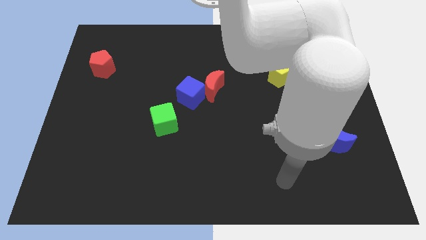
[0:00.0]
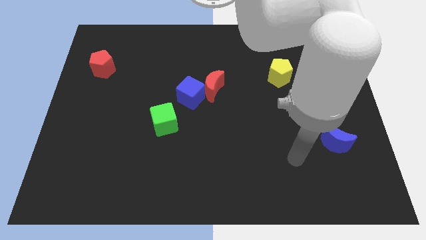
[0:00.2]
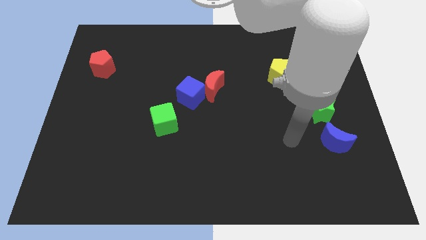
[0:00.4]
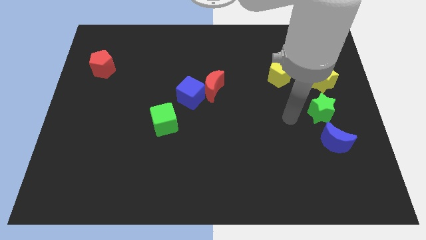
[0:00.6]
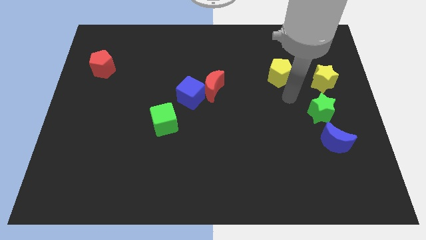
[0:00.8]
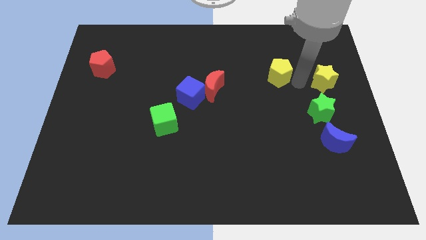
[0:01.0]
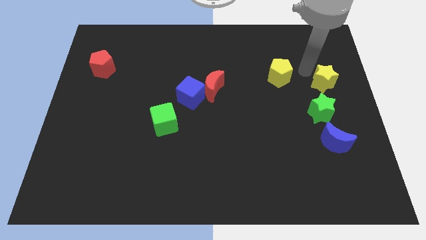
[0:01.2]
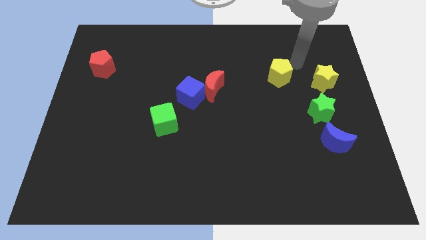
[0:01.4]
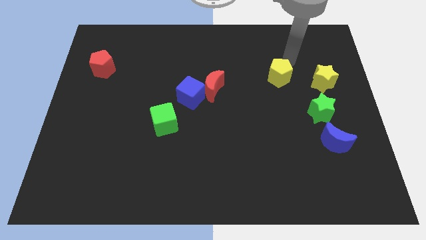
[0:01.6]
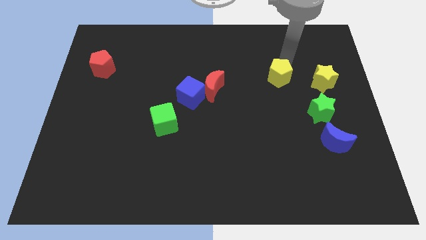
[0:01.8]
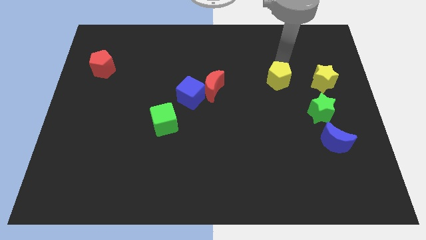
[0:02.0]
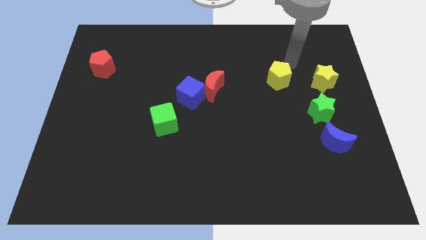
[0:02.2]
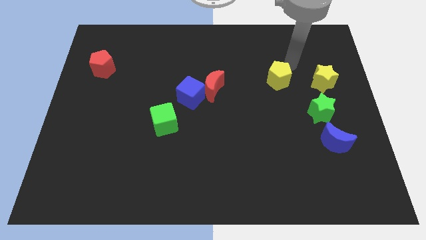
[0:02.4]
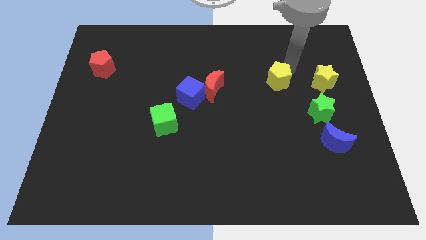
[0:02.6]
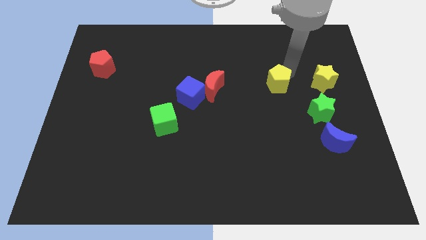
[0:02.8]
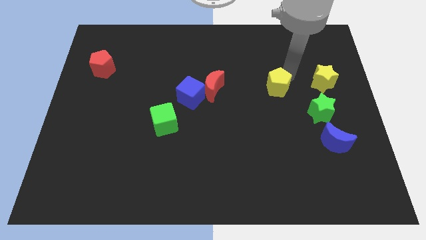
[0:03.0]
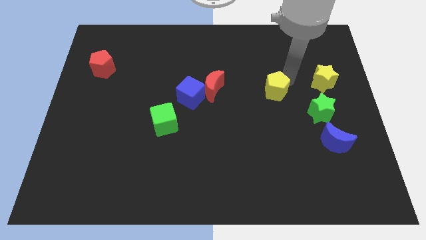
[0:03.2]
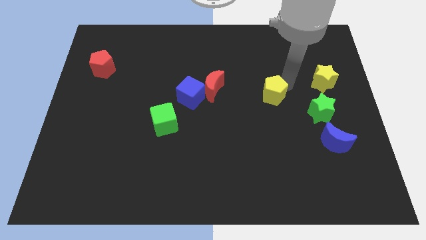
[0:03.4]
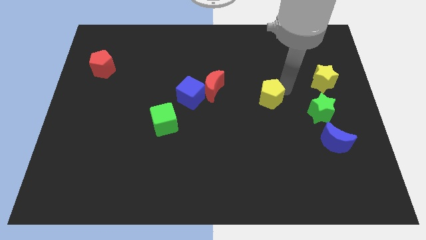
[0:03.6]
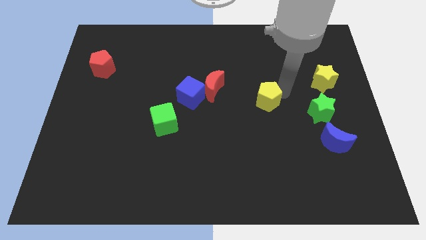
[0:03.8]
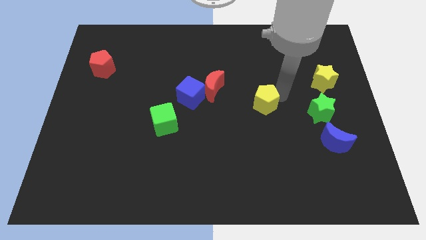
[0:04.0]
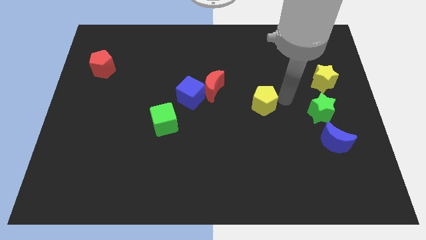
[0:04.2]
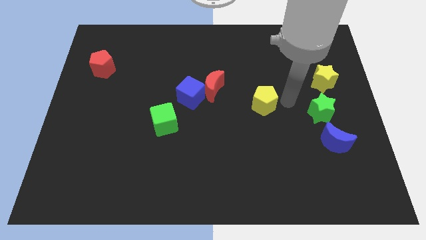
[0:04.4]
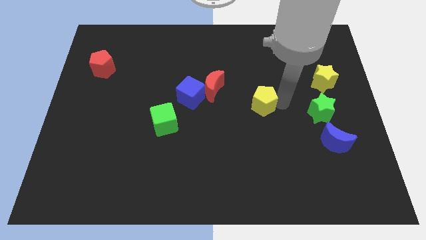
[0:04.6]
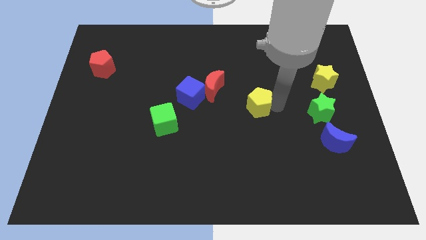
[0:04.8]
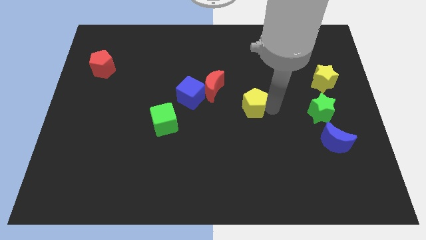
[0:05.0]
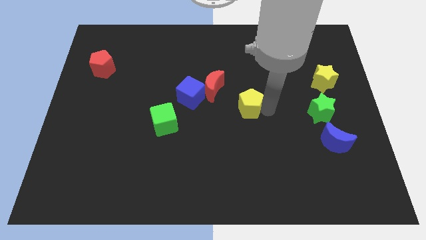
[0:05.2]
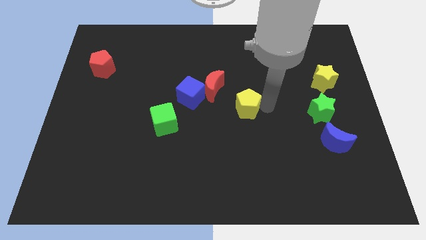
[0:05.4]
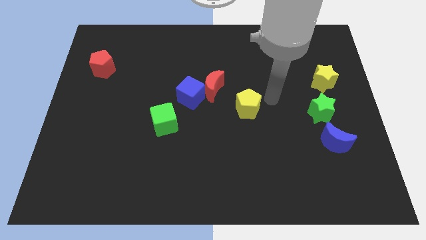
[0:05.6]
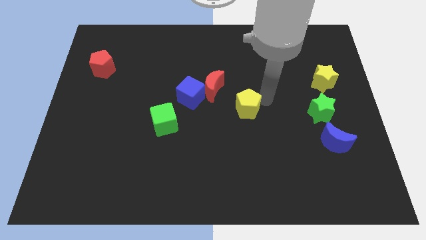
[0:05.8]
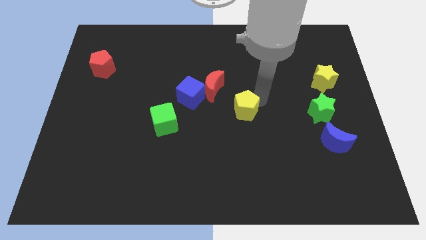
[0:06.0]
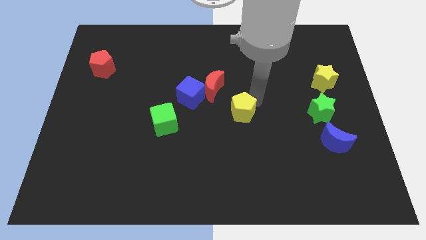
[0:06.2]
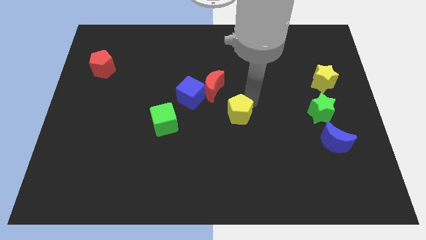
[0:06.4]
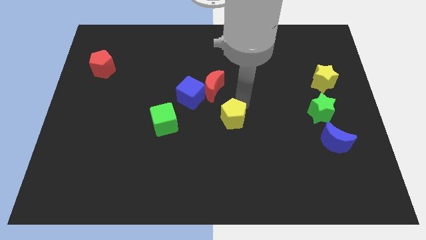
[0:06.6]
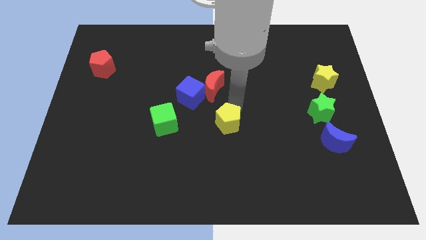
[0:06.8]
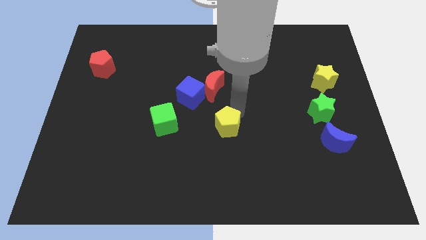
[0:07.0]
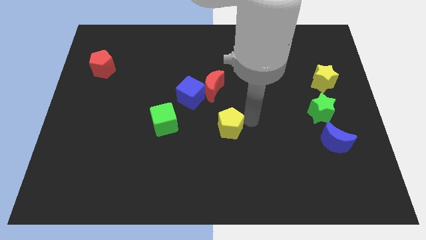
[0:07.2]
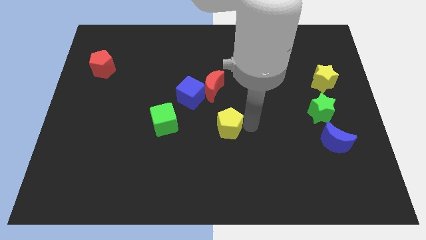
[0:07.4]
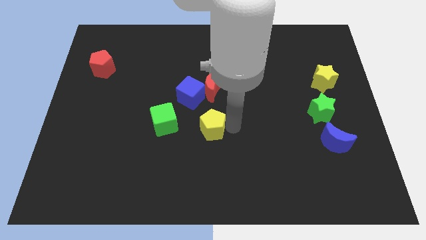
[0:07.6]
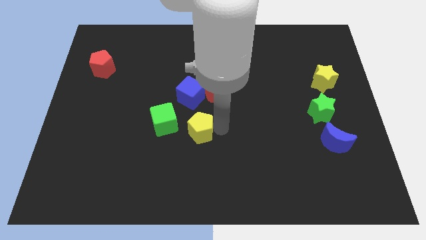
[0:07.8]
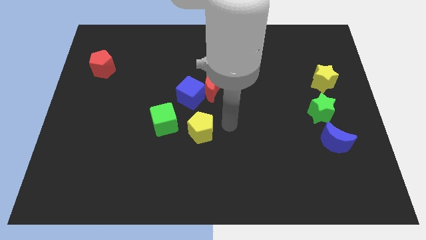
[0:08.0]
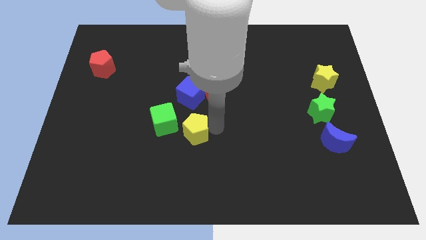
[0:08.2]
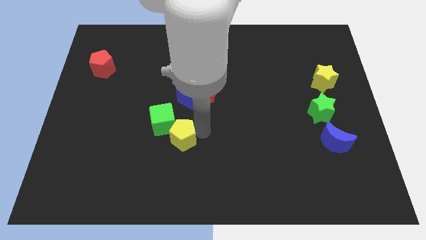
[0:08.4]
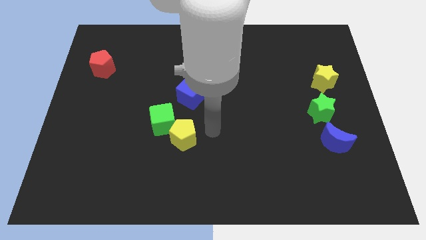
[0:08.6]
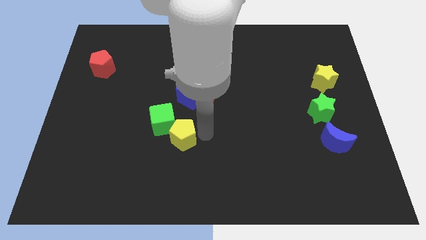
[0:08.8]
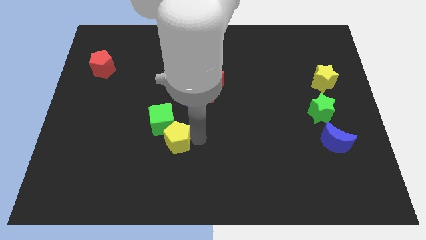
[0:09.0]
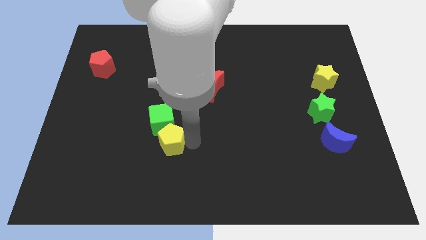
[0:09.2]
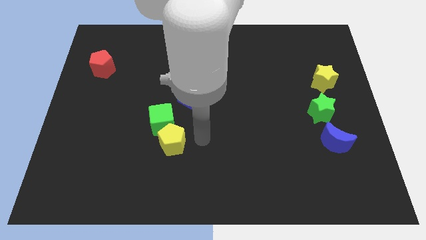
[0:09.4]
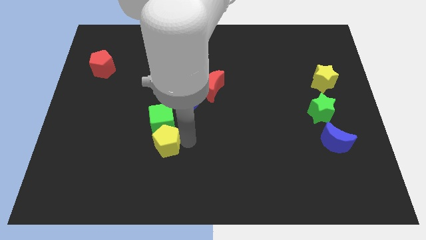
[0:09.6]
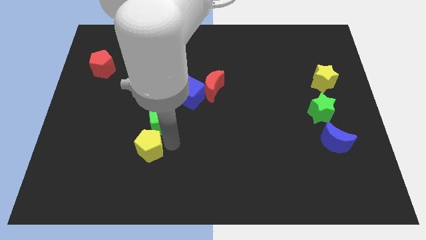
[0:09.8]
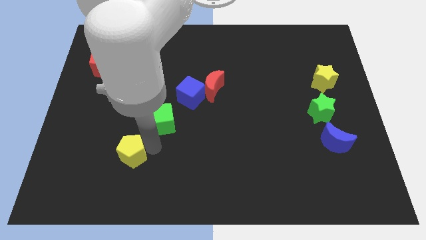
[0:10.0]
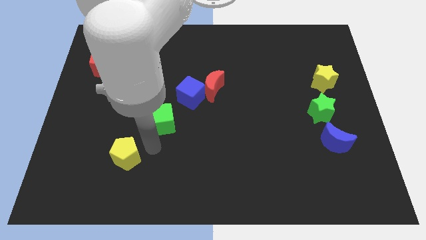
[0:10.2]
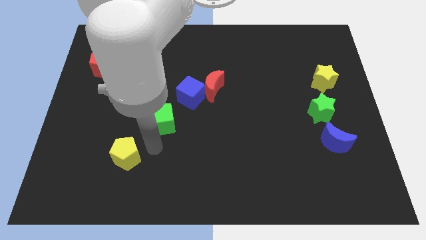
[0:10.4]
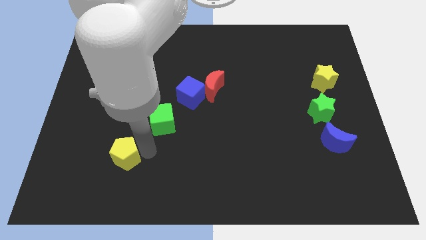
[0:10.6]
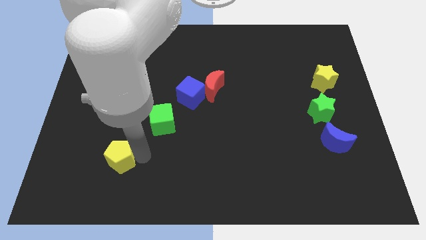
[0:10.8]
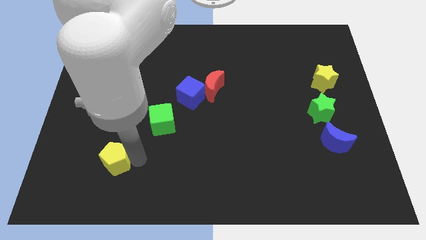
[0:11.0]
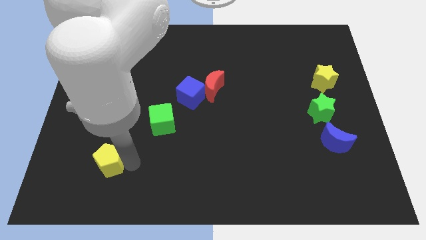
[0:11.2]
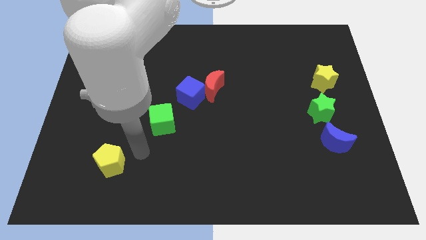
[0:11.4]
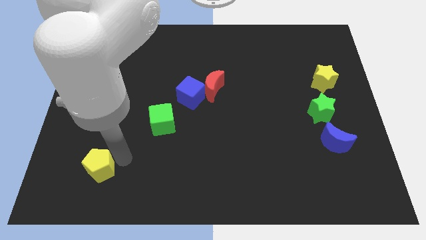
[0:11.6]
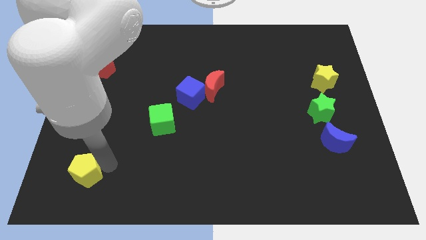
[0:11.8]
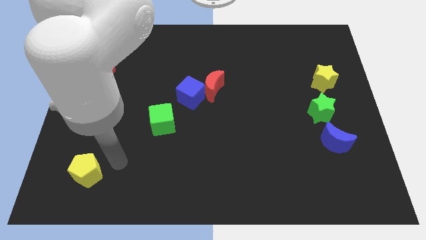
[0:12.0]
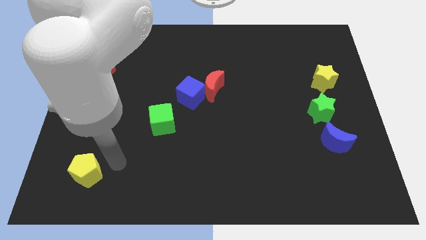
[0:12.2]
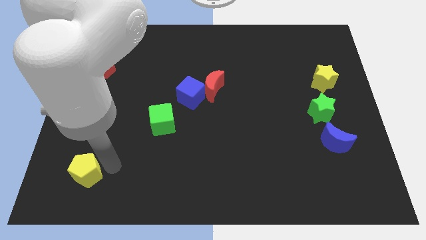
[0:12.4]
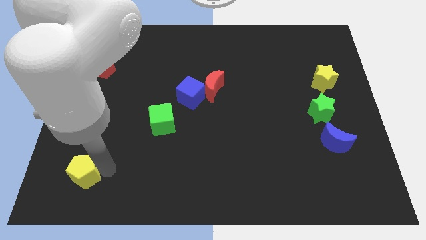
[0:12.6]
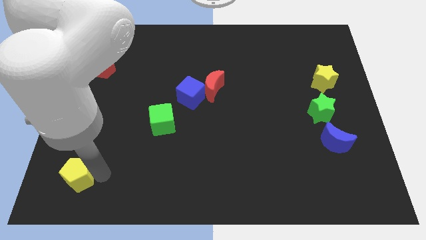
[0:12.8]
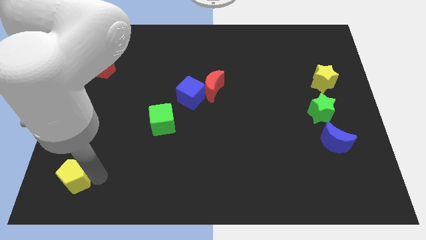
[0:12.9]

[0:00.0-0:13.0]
push the yellow pentagon to the bottom left of the board
